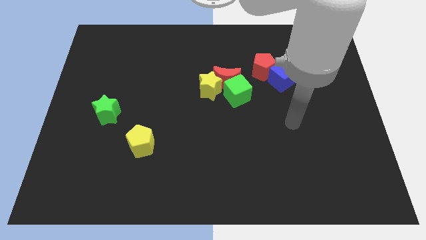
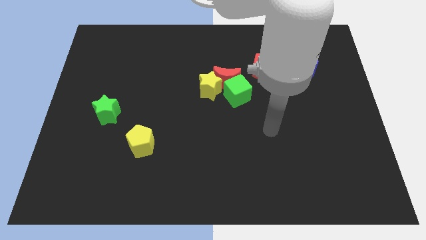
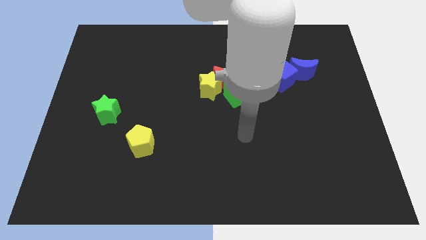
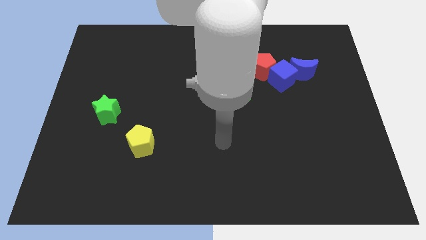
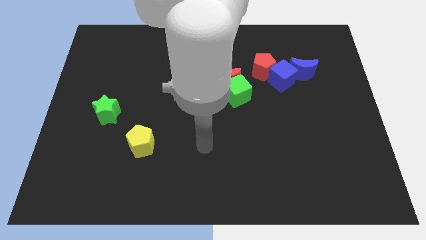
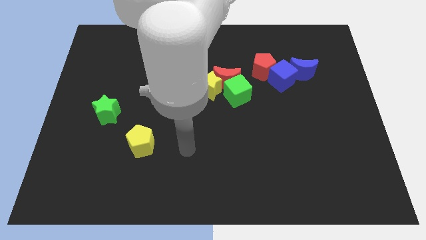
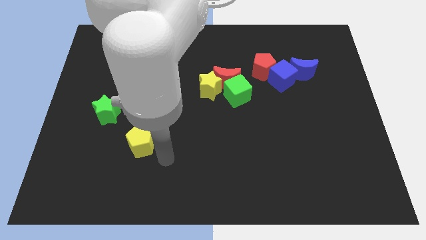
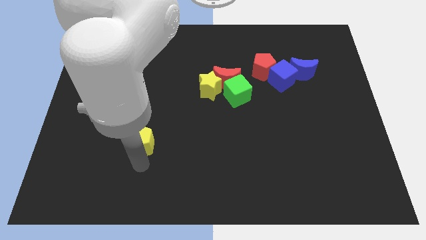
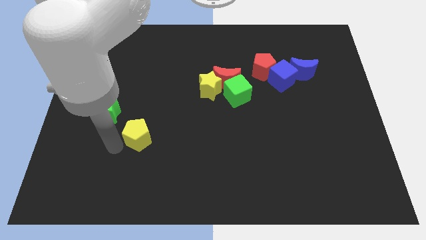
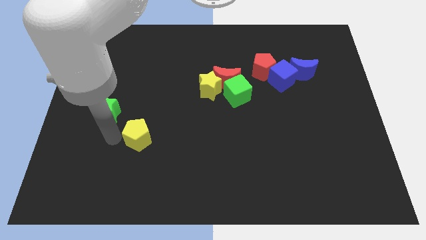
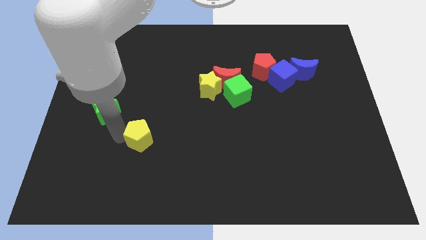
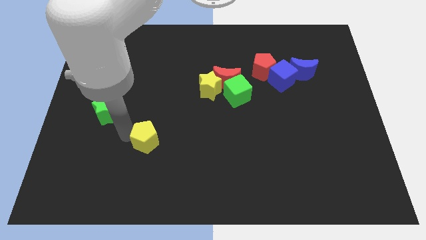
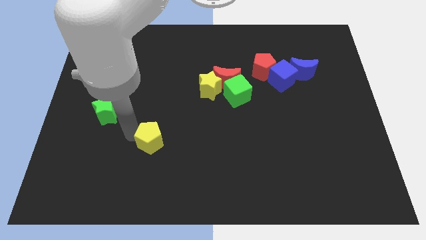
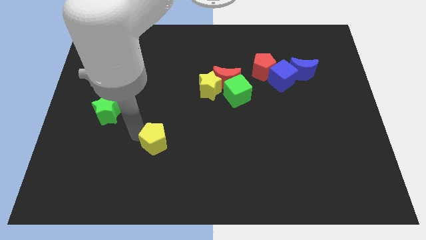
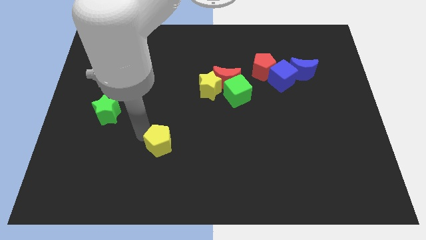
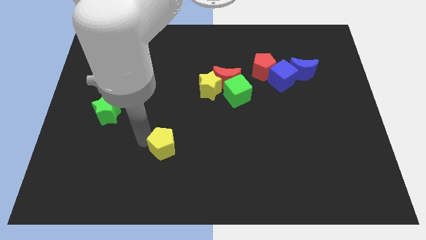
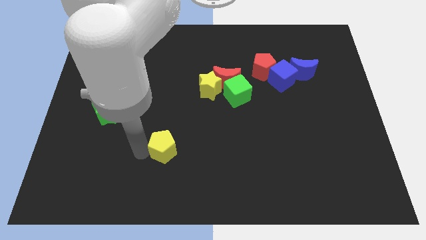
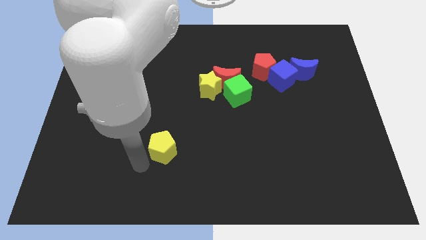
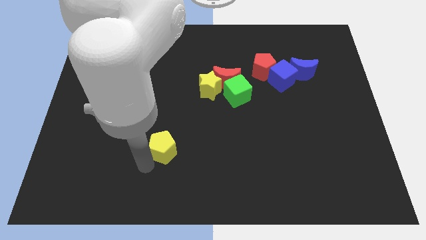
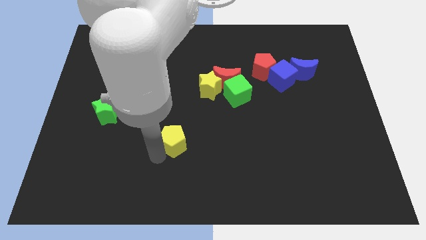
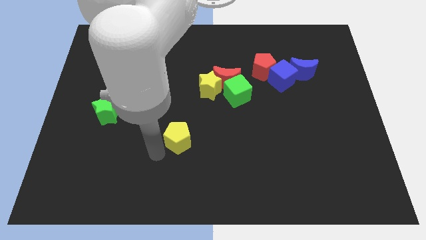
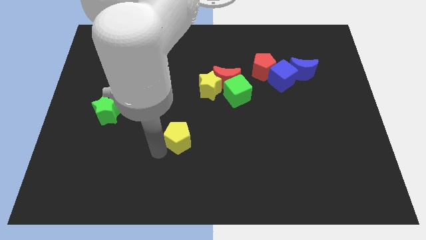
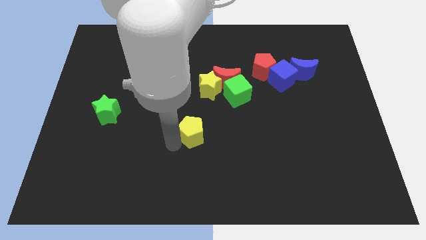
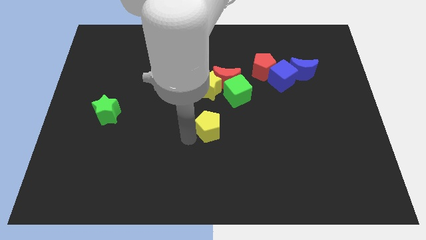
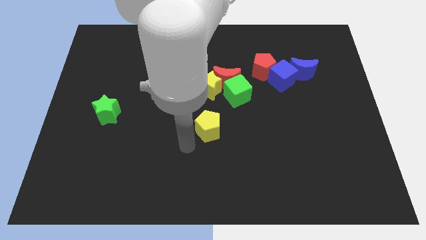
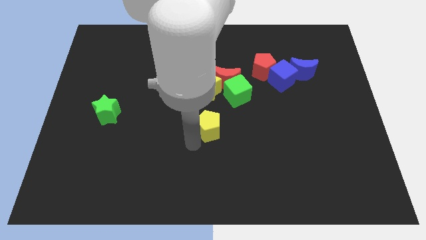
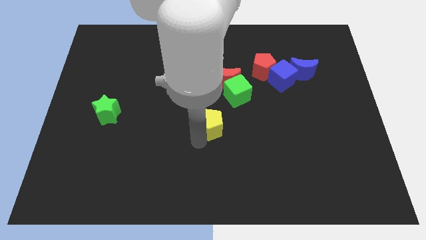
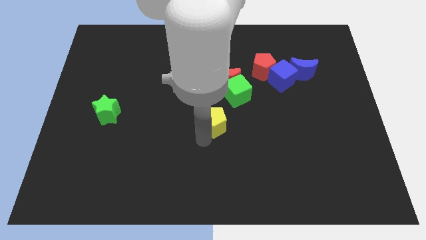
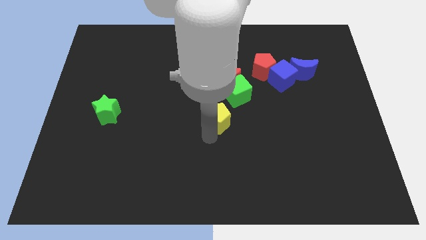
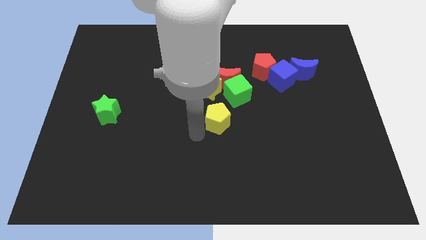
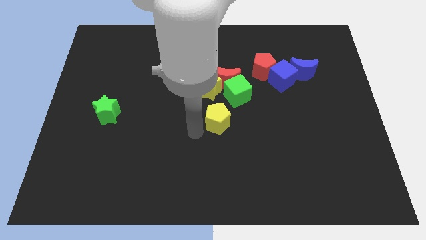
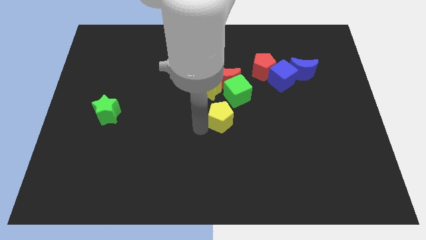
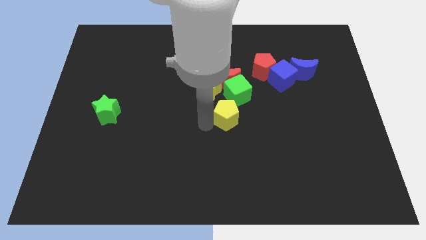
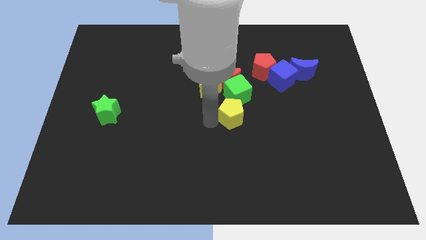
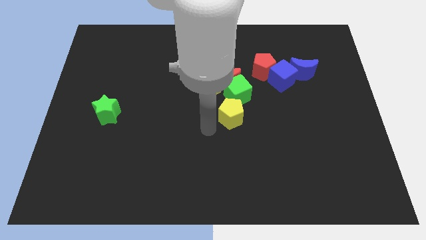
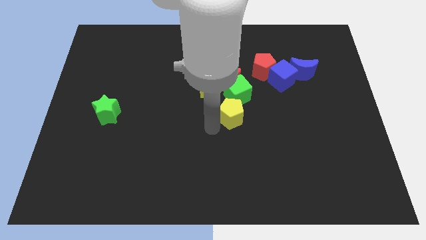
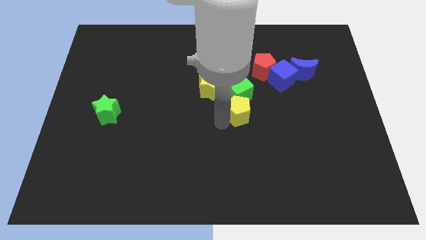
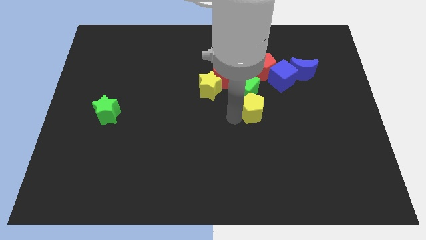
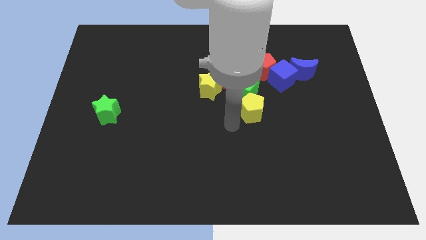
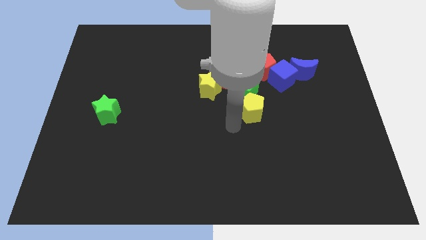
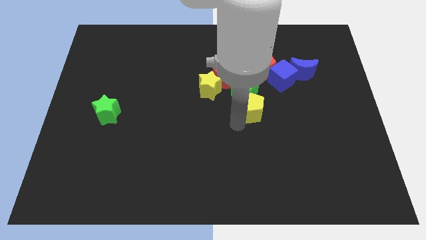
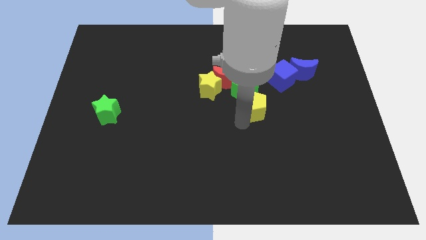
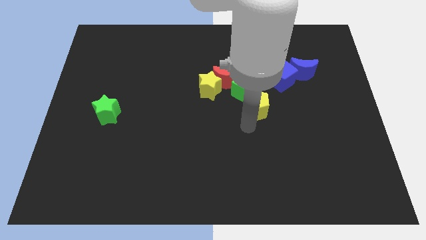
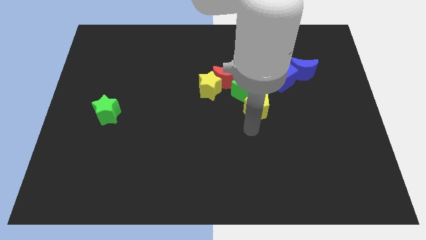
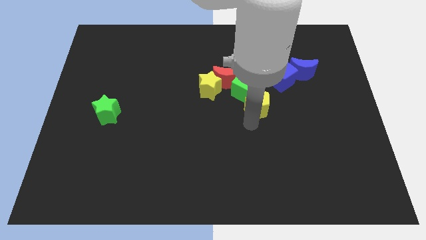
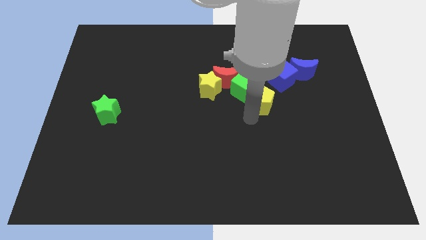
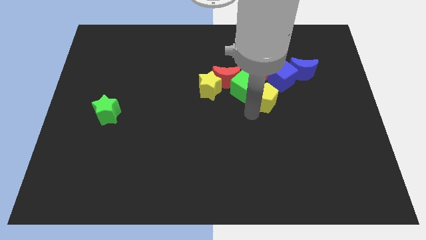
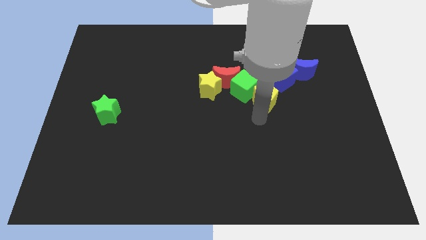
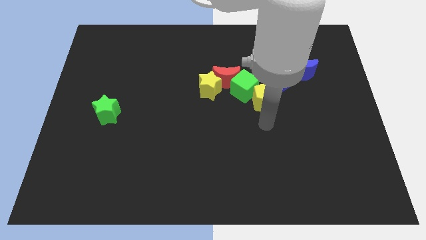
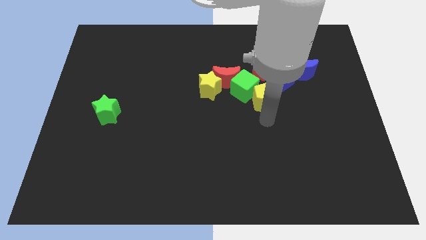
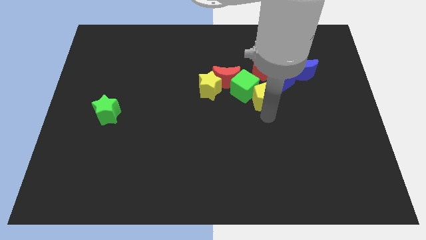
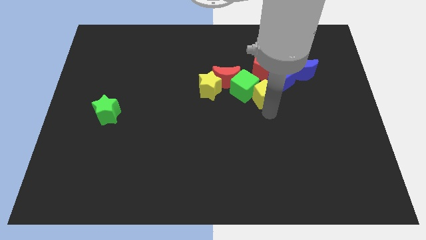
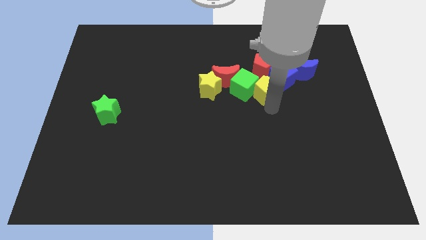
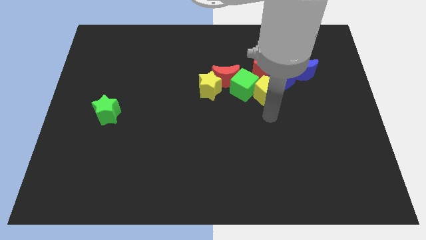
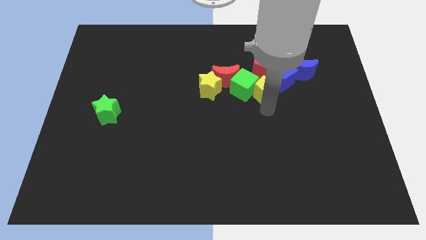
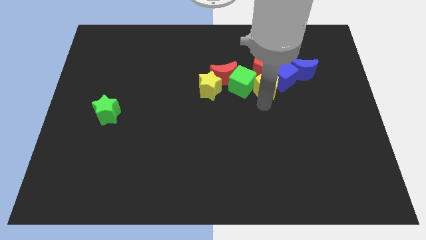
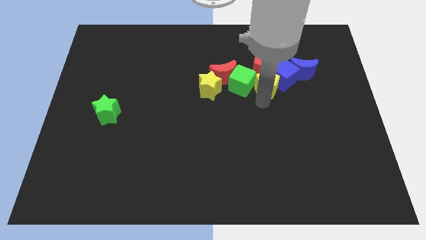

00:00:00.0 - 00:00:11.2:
put the yellow pentagon close to the red pentagon
